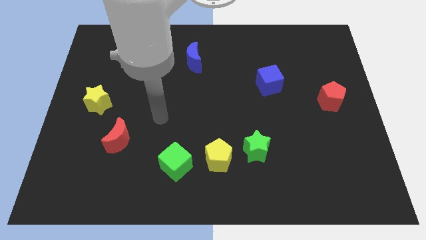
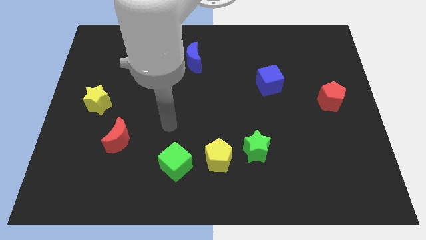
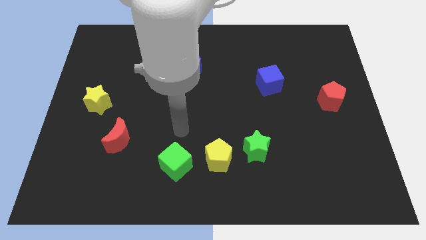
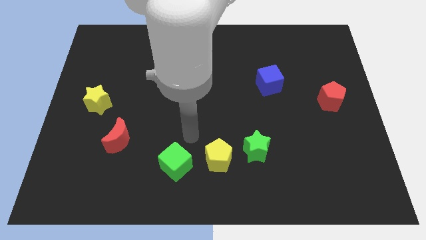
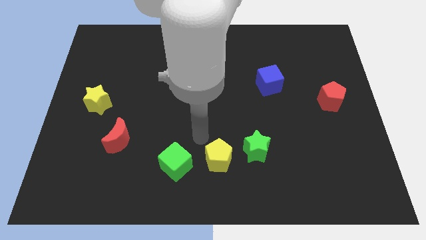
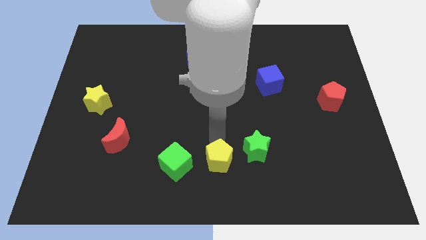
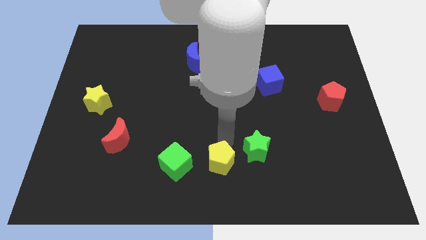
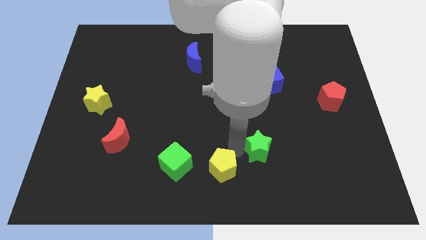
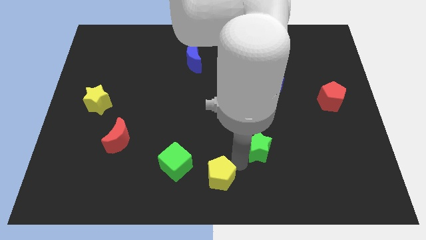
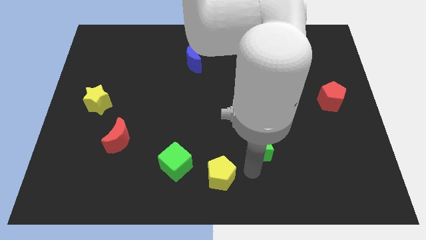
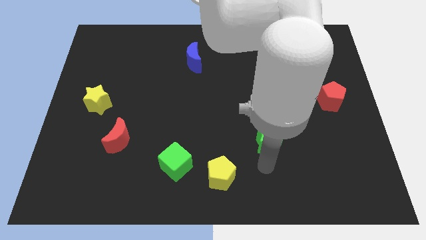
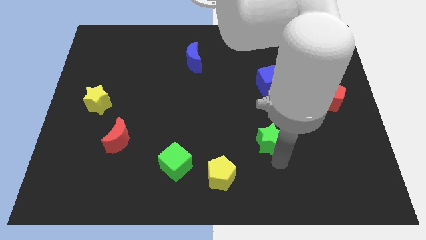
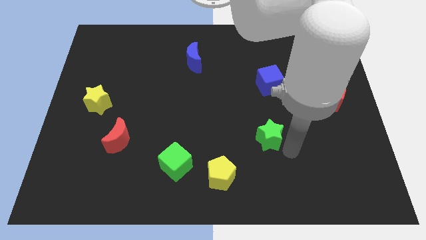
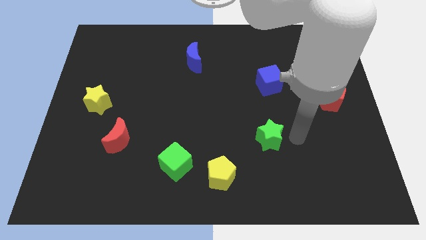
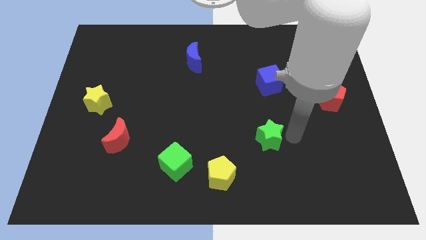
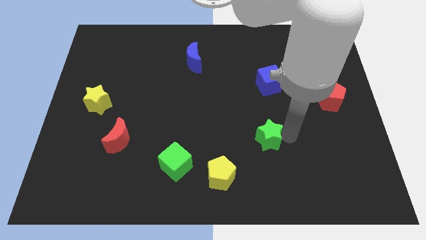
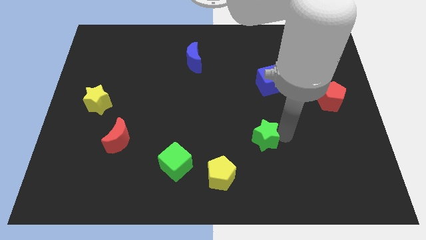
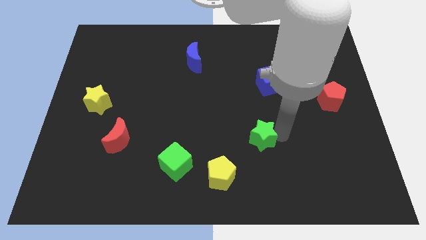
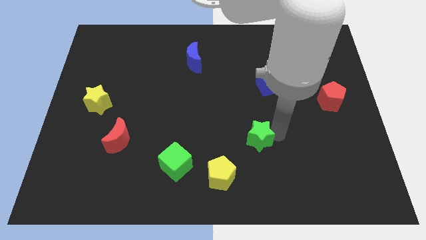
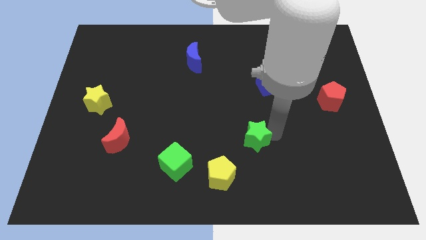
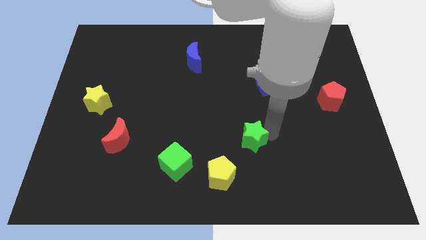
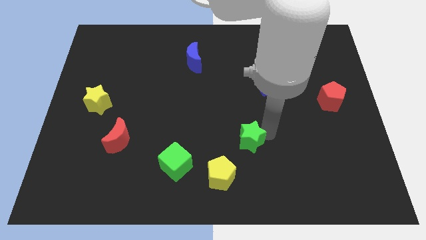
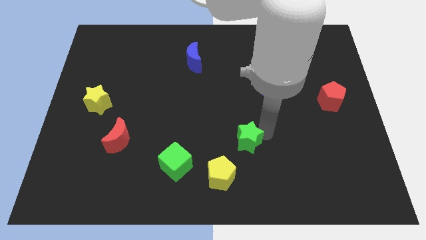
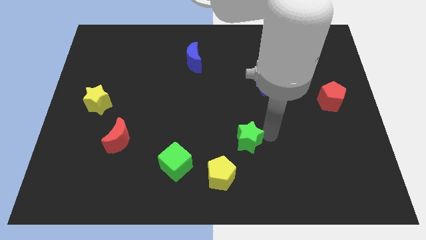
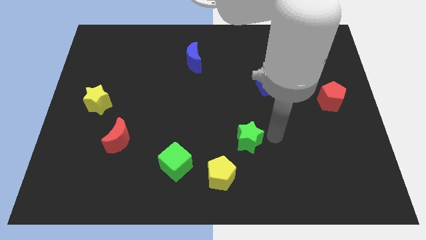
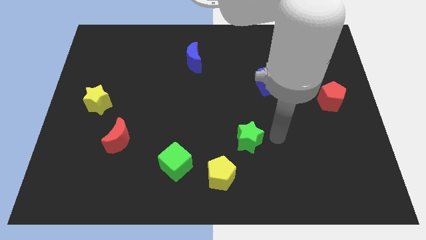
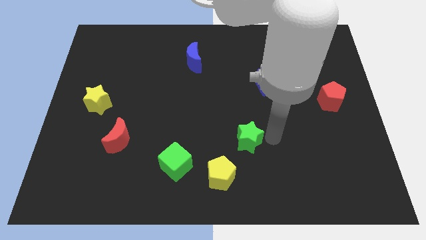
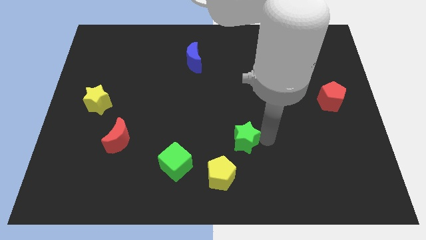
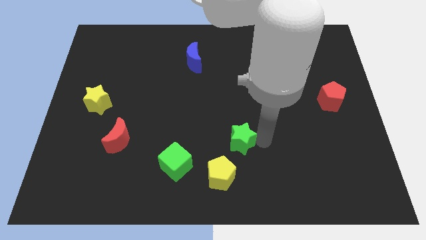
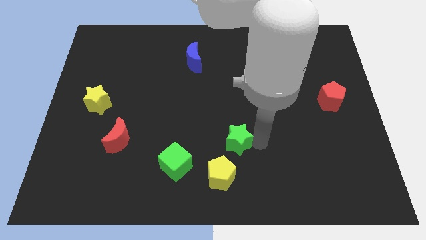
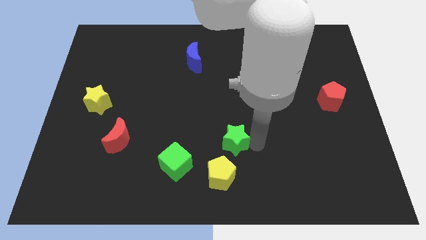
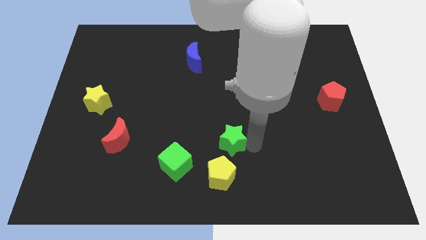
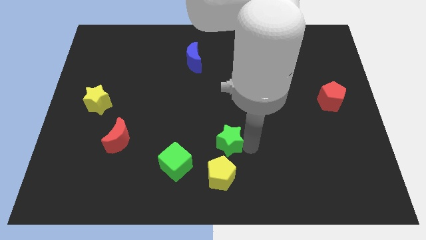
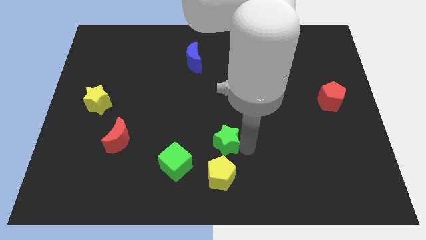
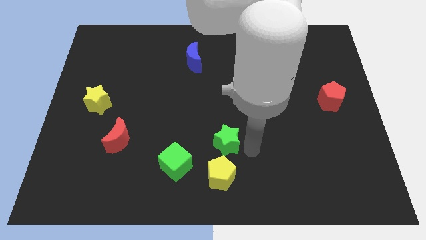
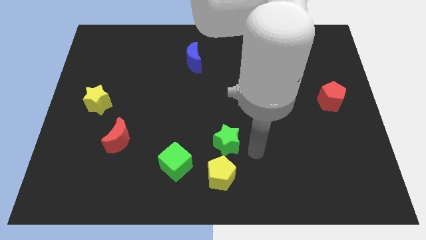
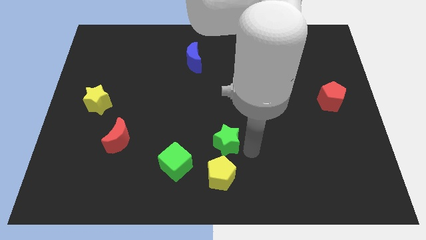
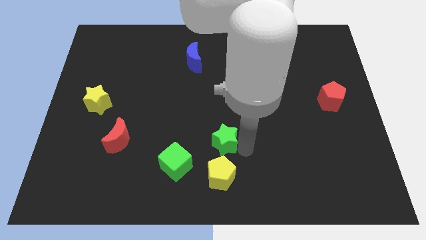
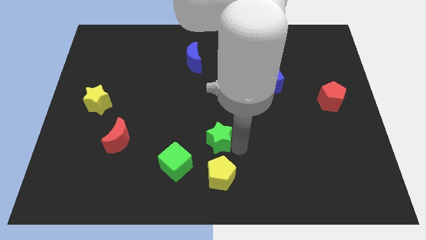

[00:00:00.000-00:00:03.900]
slightly push the green star left

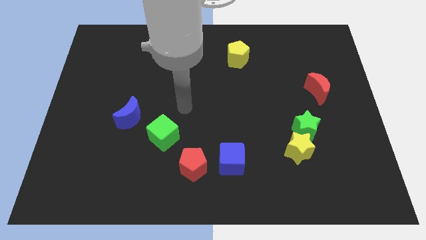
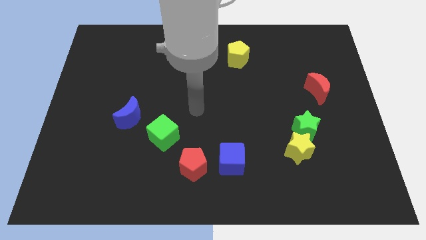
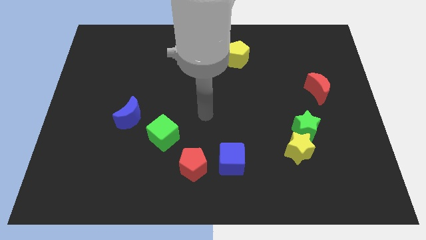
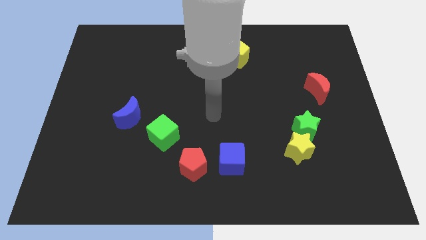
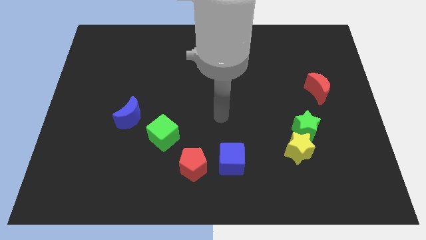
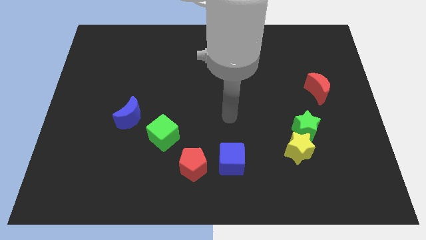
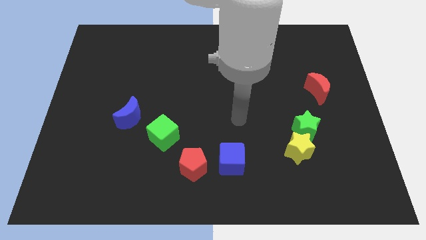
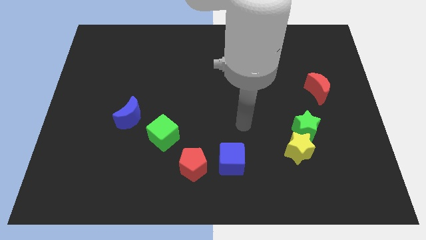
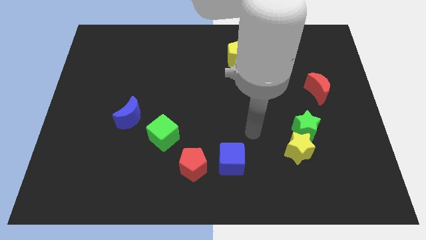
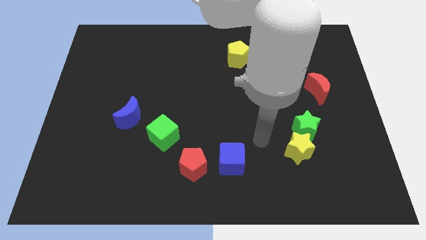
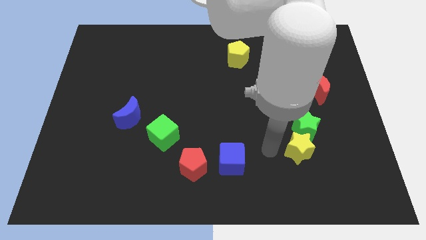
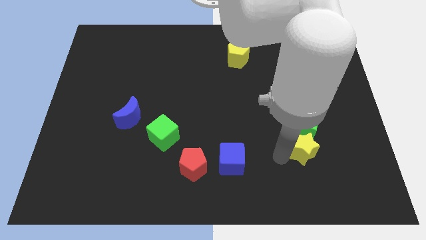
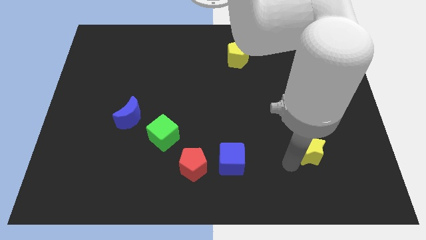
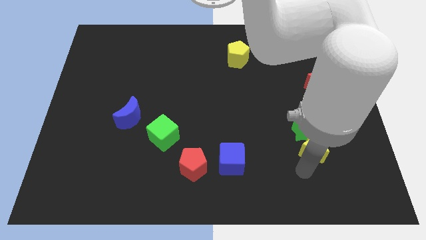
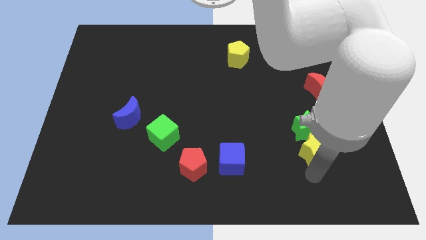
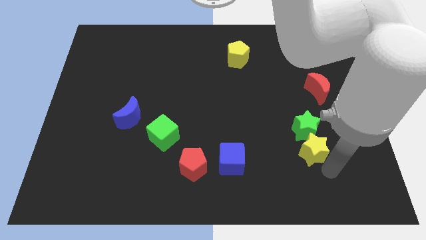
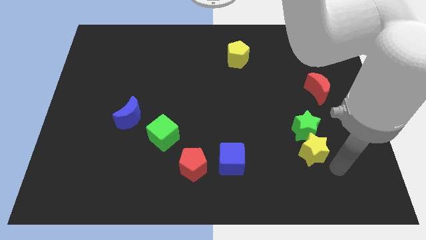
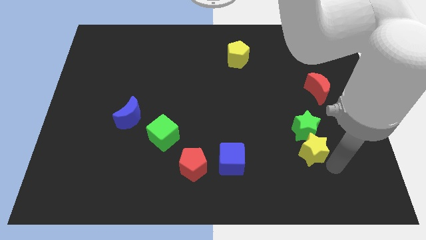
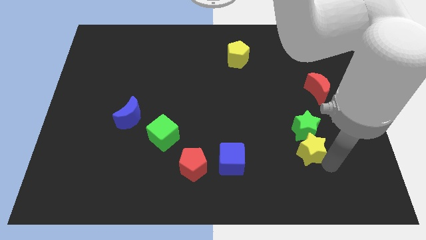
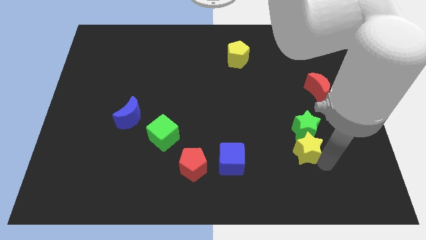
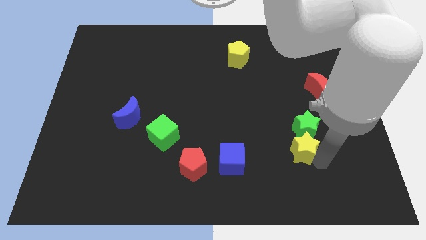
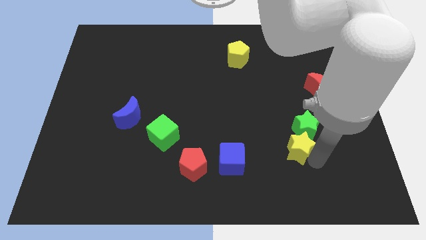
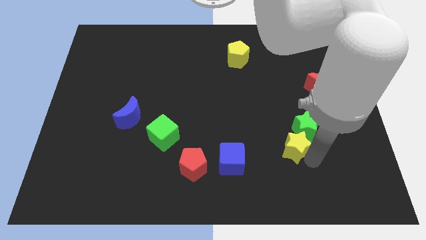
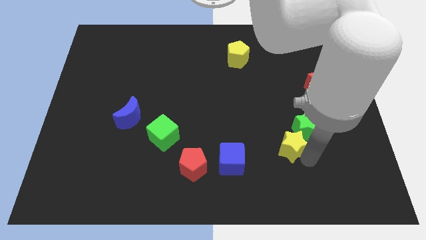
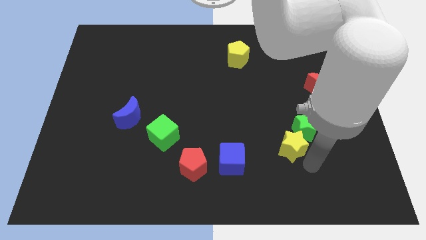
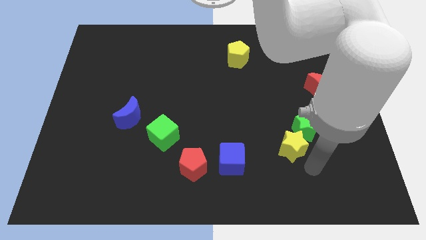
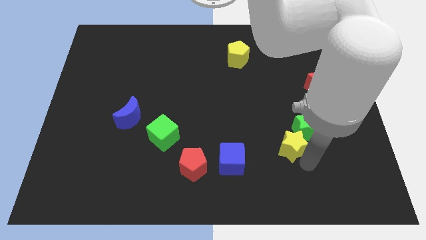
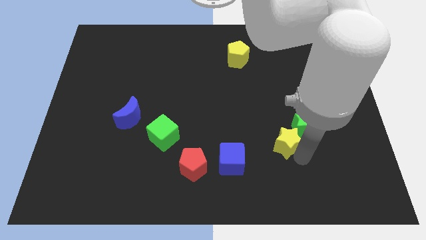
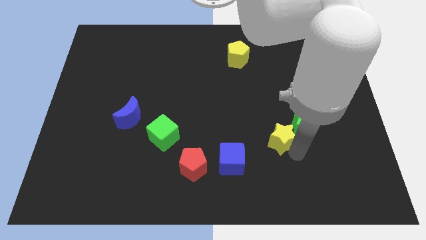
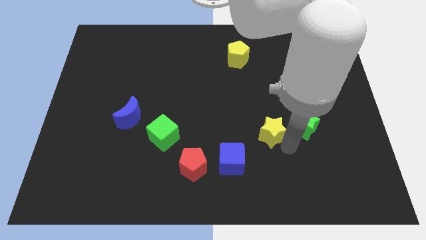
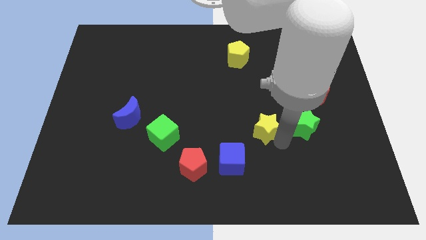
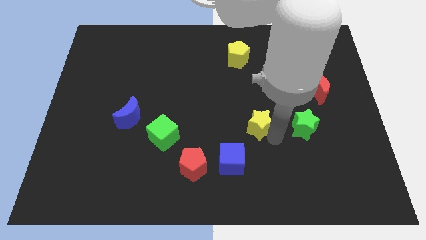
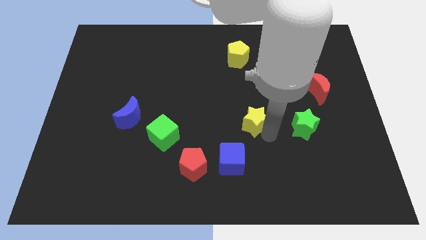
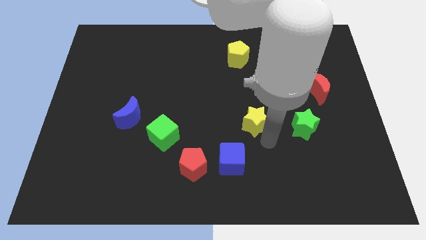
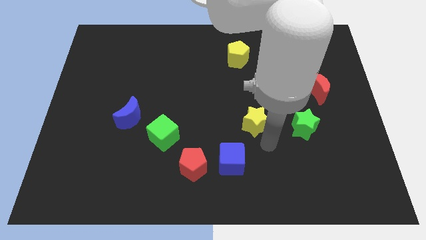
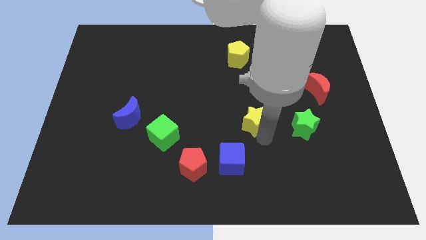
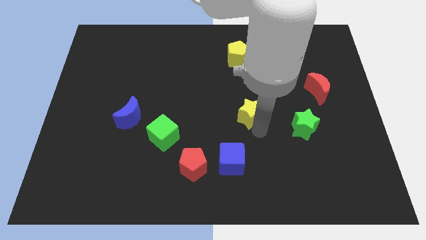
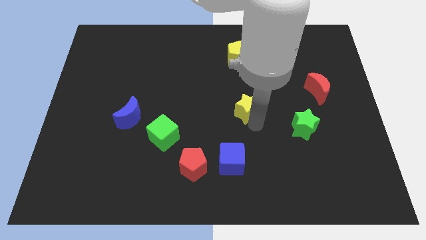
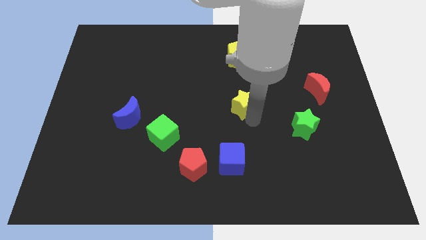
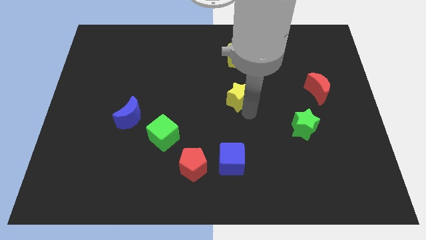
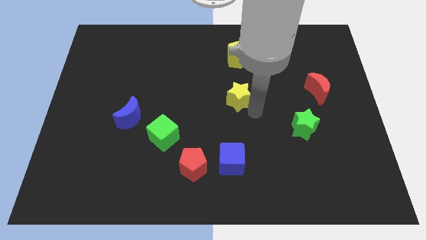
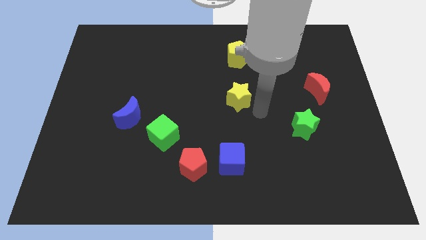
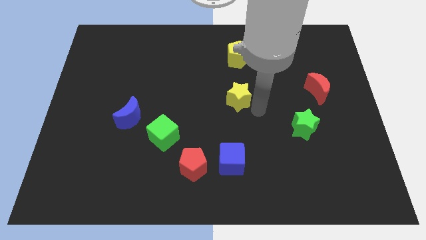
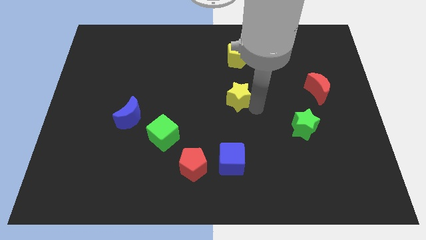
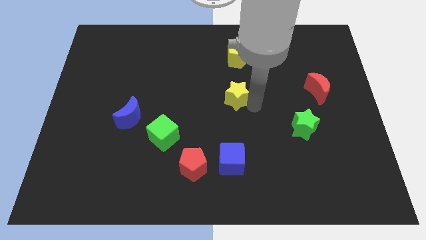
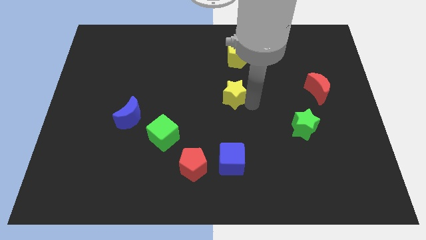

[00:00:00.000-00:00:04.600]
move the yellow star upwards and then left
